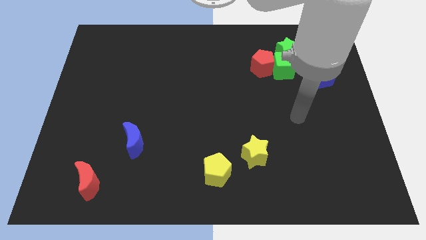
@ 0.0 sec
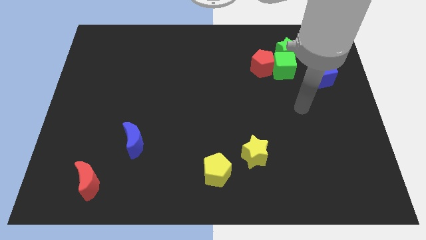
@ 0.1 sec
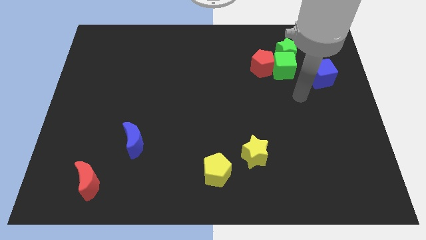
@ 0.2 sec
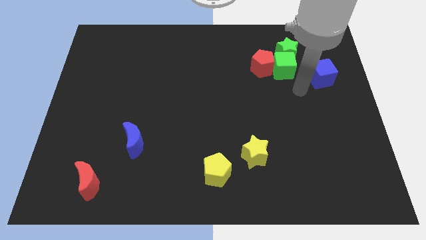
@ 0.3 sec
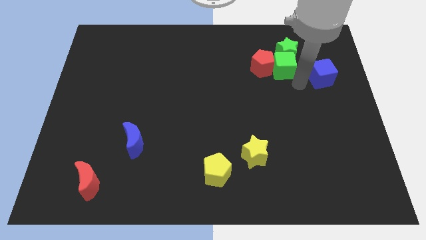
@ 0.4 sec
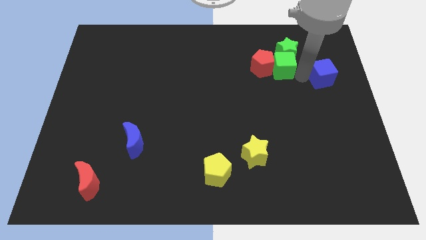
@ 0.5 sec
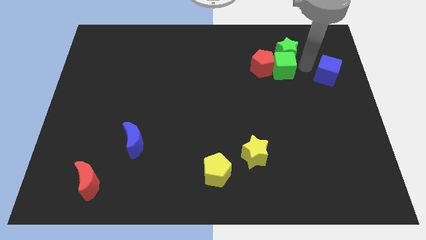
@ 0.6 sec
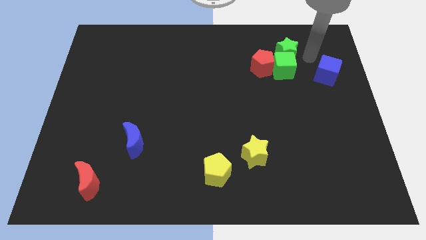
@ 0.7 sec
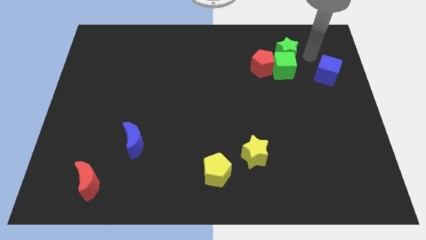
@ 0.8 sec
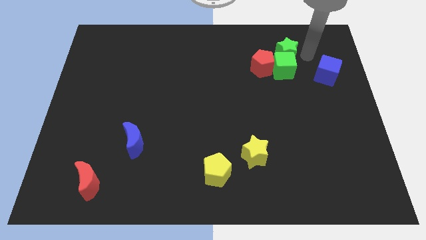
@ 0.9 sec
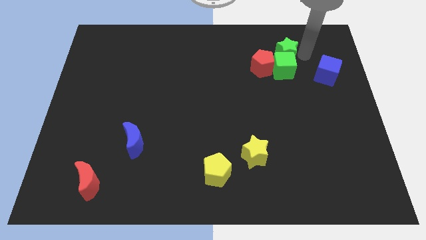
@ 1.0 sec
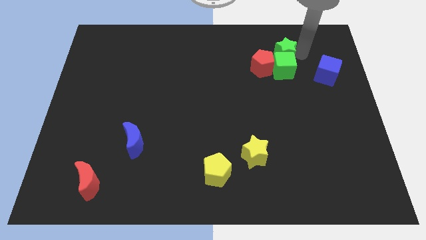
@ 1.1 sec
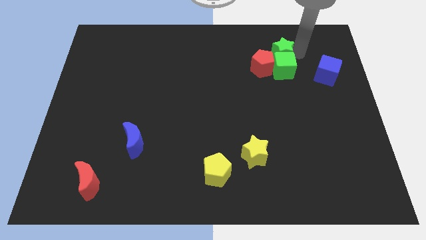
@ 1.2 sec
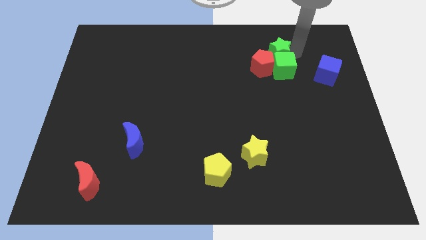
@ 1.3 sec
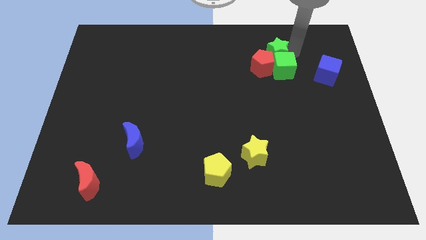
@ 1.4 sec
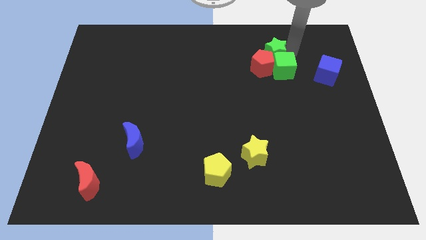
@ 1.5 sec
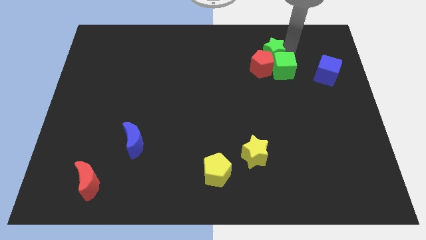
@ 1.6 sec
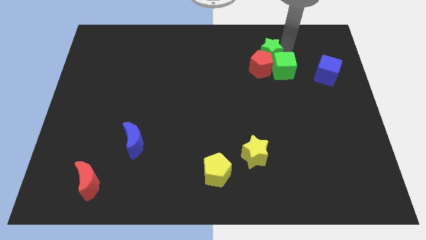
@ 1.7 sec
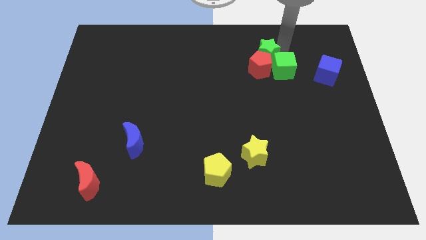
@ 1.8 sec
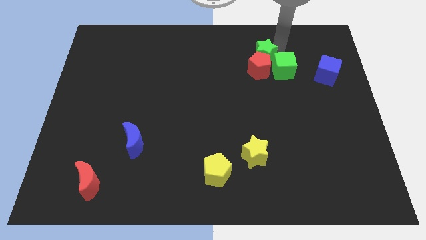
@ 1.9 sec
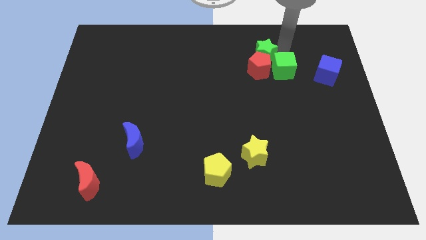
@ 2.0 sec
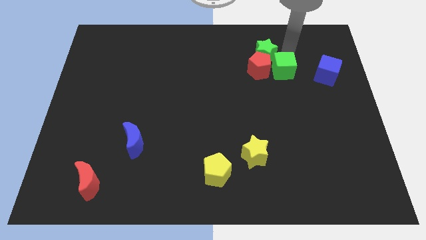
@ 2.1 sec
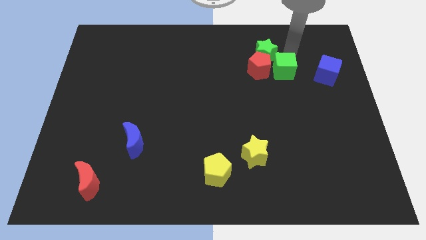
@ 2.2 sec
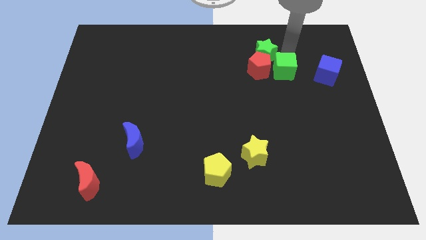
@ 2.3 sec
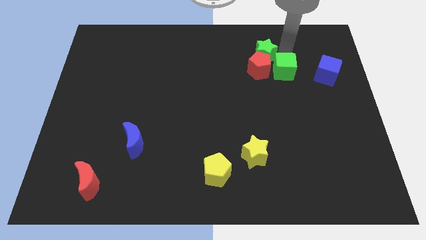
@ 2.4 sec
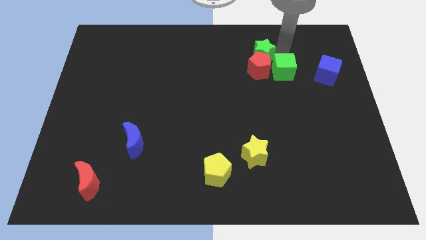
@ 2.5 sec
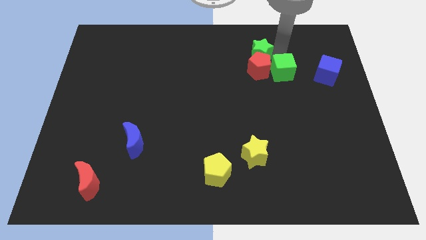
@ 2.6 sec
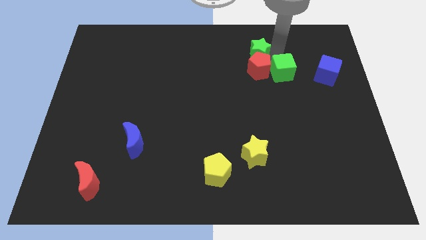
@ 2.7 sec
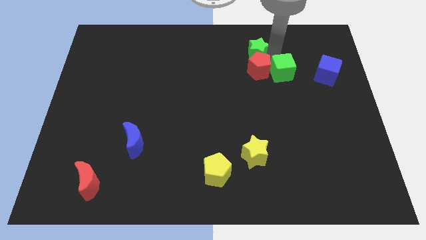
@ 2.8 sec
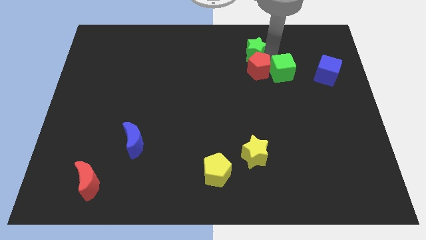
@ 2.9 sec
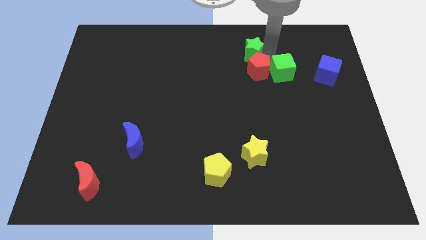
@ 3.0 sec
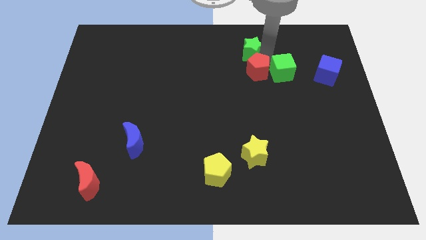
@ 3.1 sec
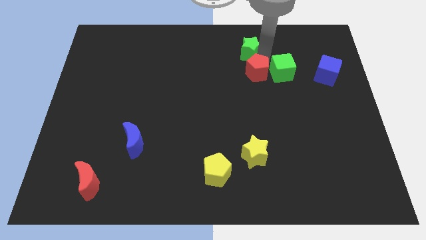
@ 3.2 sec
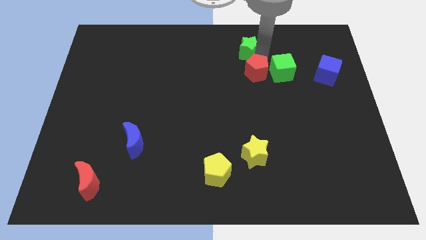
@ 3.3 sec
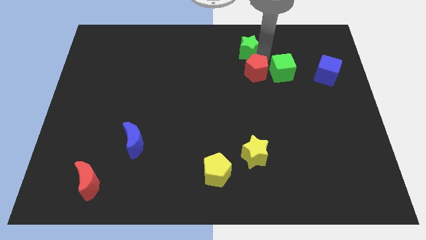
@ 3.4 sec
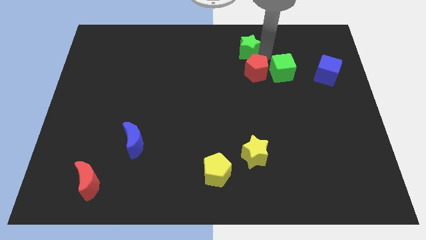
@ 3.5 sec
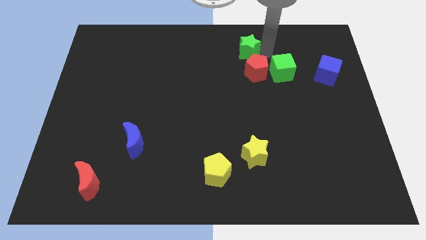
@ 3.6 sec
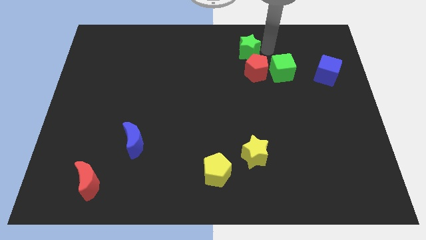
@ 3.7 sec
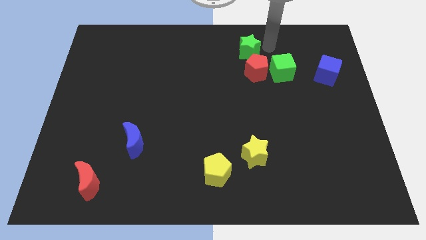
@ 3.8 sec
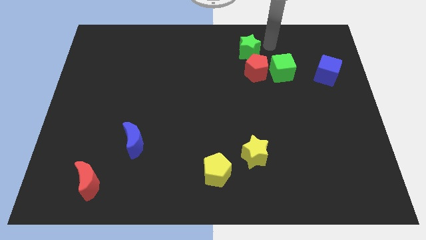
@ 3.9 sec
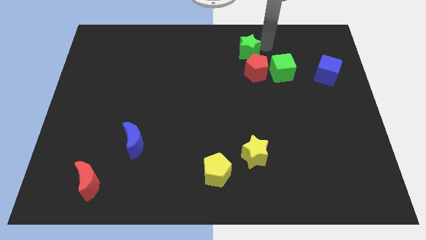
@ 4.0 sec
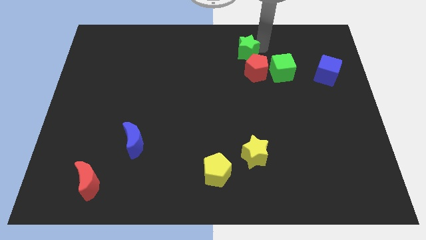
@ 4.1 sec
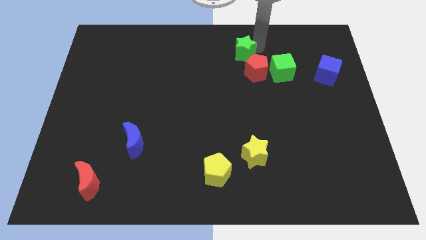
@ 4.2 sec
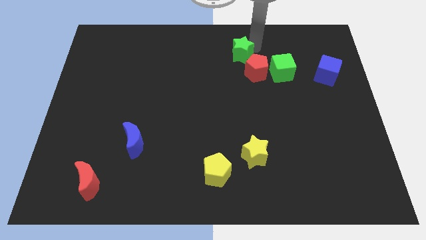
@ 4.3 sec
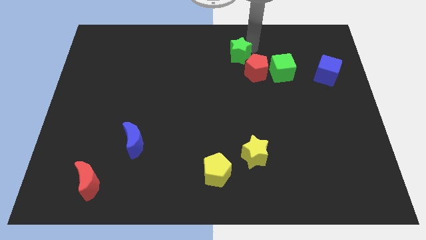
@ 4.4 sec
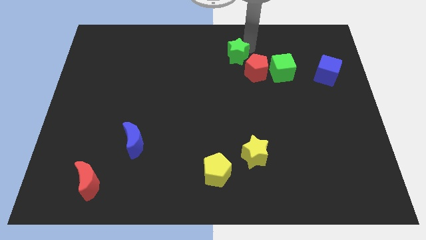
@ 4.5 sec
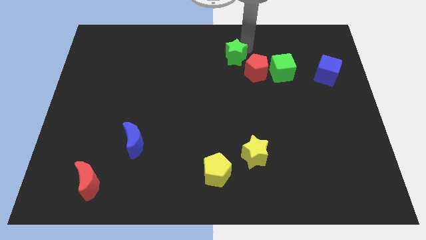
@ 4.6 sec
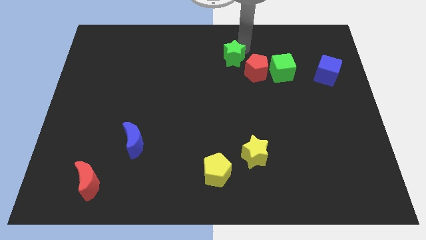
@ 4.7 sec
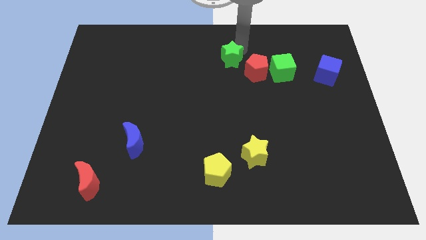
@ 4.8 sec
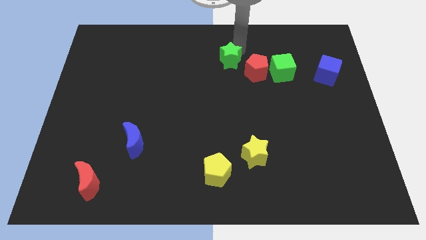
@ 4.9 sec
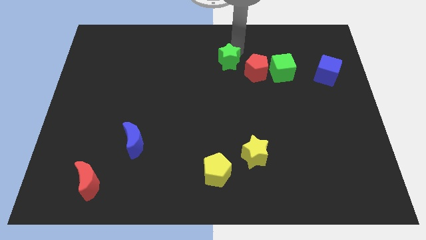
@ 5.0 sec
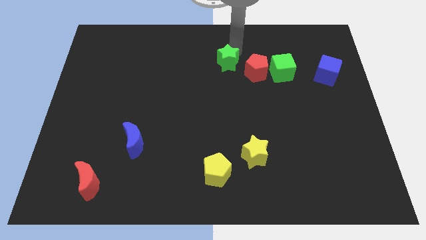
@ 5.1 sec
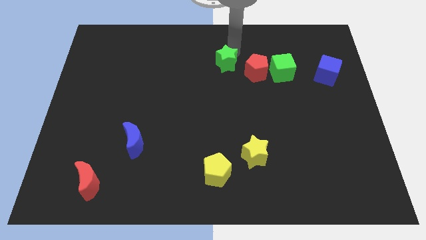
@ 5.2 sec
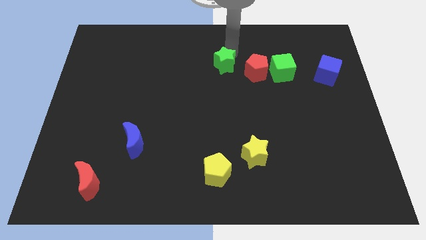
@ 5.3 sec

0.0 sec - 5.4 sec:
push the green star to the center

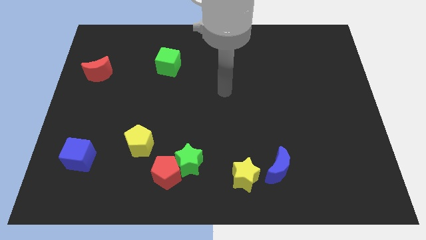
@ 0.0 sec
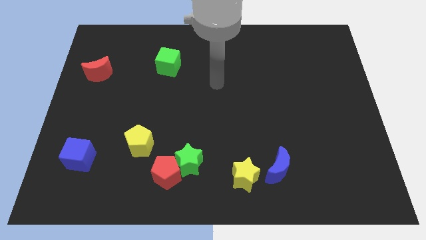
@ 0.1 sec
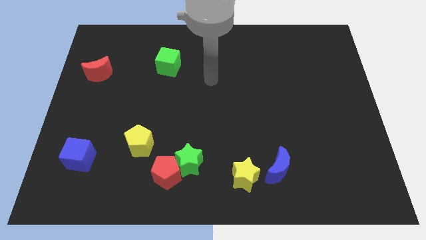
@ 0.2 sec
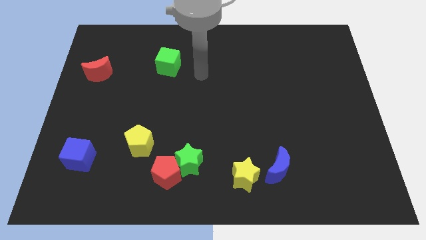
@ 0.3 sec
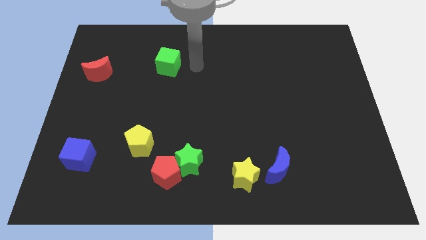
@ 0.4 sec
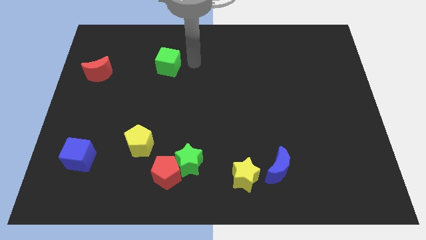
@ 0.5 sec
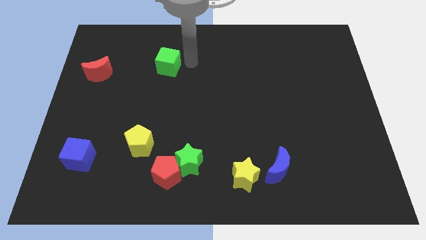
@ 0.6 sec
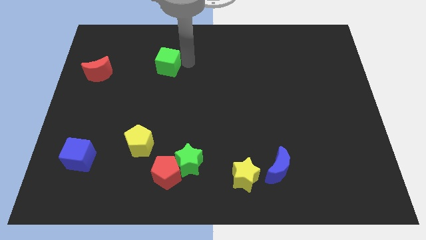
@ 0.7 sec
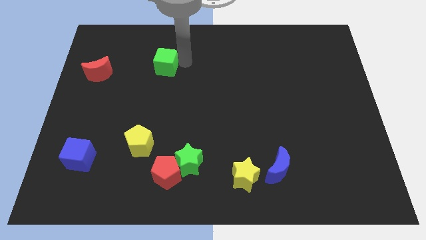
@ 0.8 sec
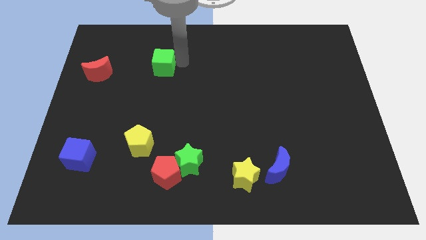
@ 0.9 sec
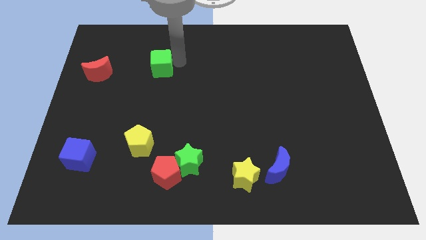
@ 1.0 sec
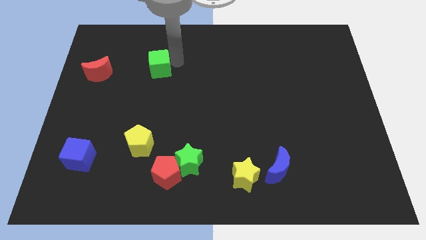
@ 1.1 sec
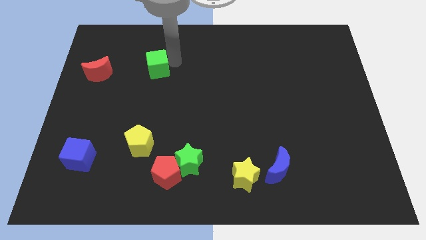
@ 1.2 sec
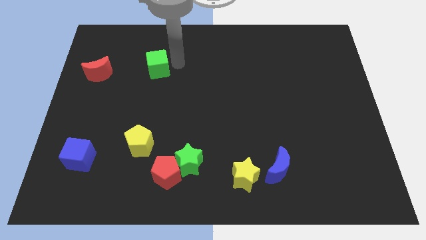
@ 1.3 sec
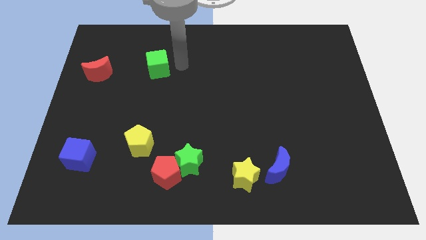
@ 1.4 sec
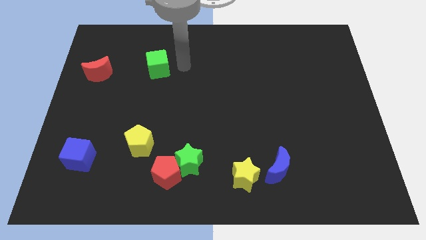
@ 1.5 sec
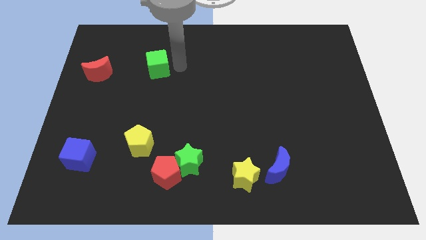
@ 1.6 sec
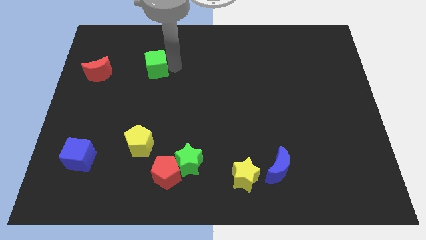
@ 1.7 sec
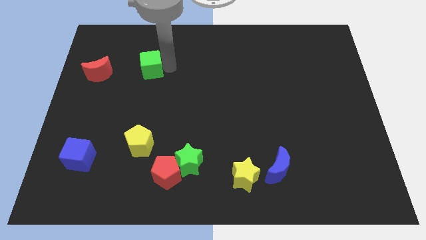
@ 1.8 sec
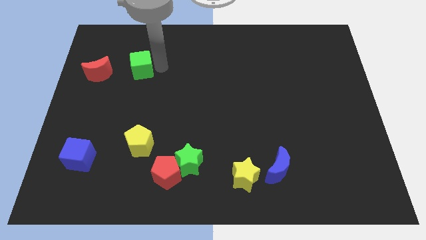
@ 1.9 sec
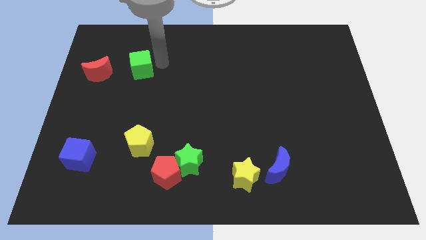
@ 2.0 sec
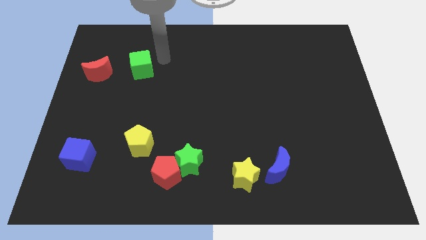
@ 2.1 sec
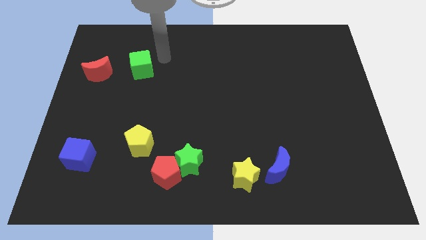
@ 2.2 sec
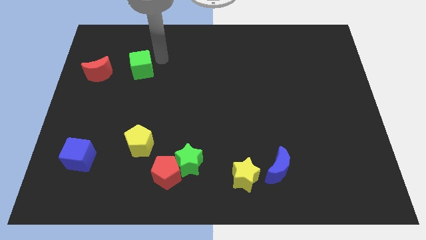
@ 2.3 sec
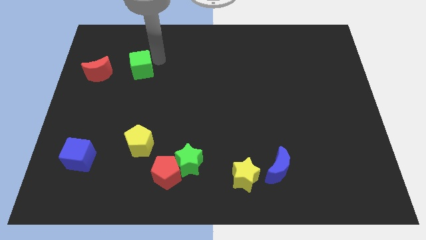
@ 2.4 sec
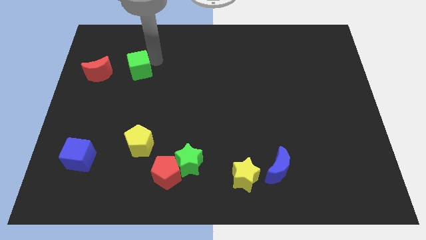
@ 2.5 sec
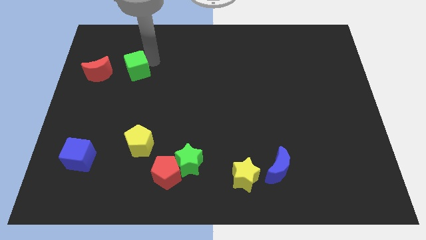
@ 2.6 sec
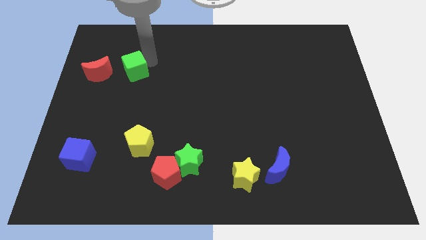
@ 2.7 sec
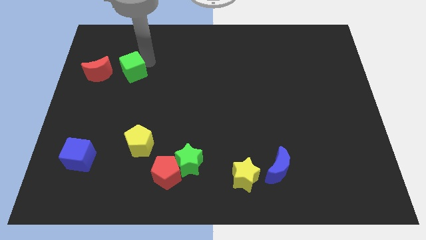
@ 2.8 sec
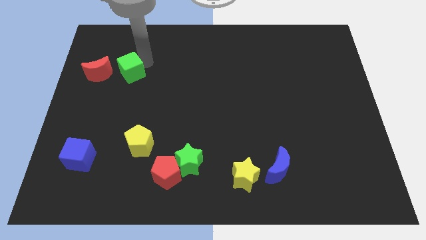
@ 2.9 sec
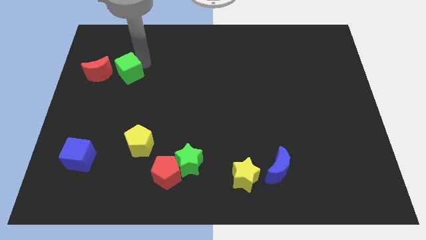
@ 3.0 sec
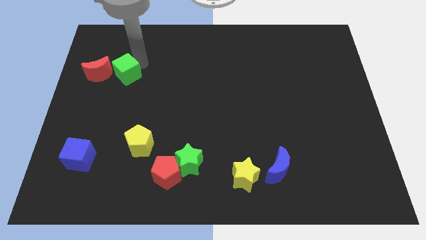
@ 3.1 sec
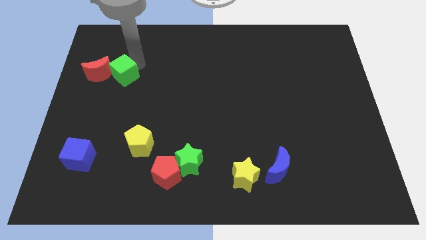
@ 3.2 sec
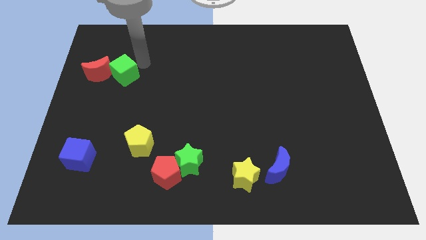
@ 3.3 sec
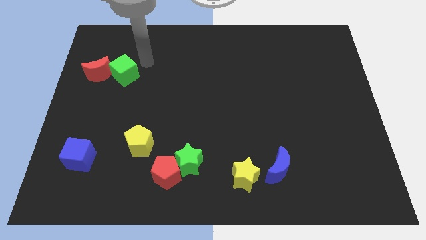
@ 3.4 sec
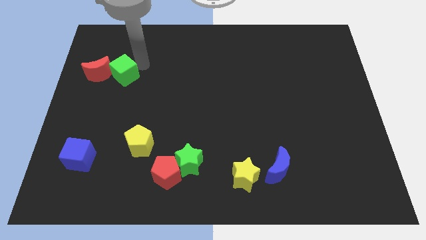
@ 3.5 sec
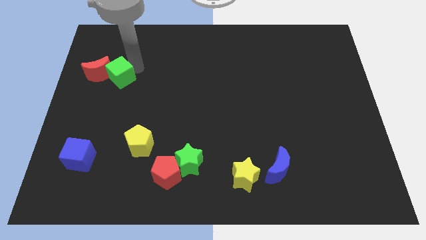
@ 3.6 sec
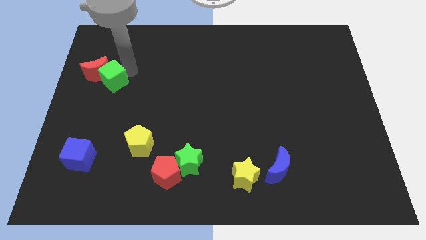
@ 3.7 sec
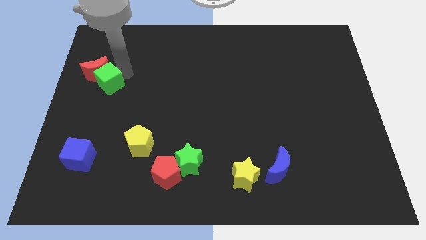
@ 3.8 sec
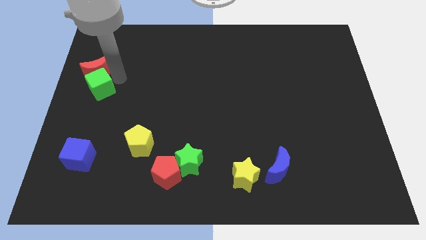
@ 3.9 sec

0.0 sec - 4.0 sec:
slide the green cube to the left side of the board
